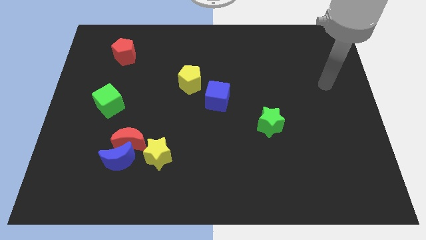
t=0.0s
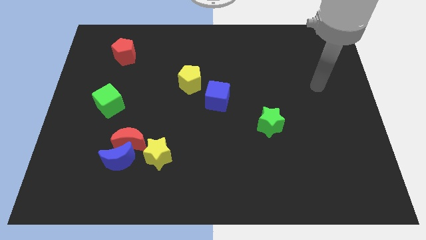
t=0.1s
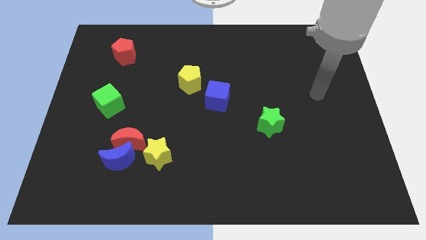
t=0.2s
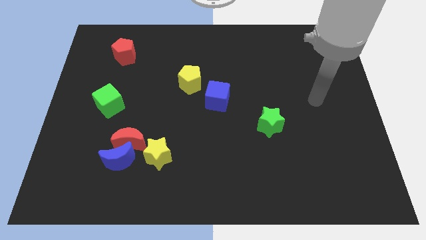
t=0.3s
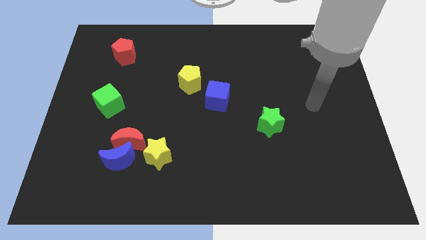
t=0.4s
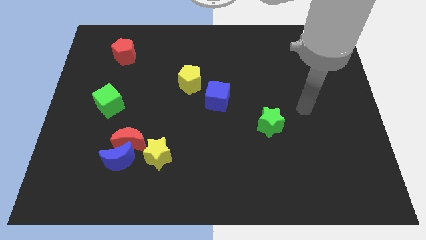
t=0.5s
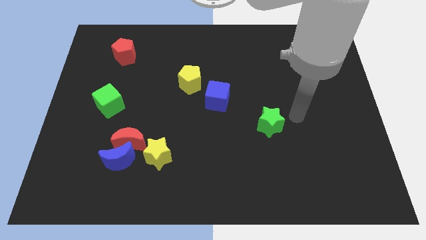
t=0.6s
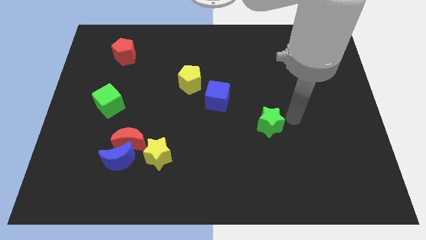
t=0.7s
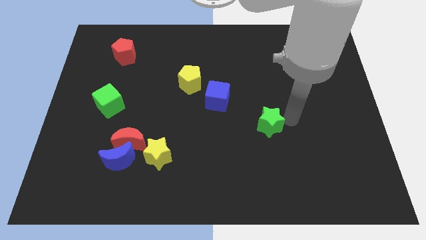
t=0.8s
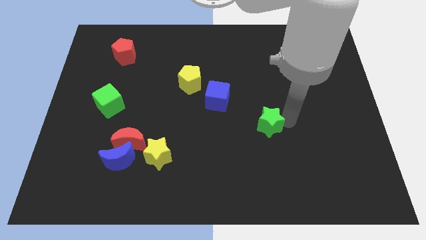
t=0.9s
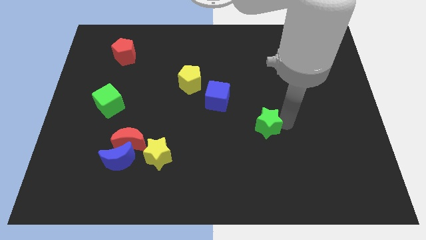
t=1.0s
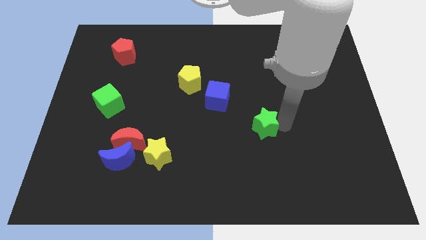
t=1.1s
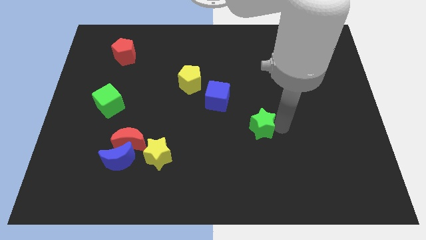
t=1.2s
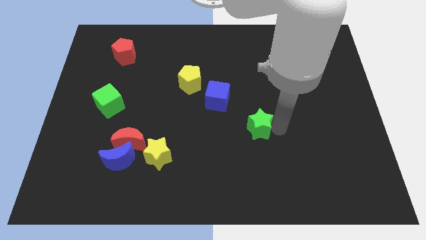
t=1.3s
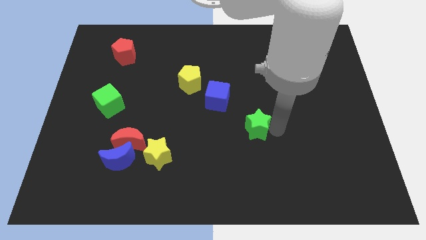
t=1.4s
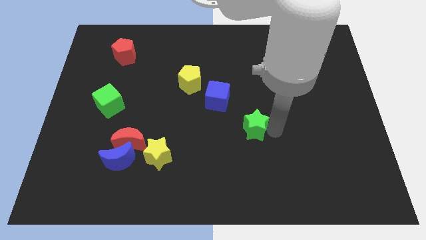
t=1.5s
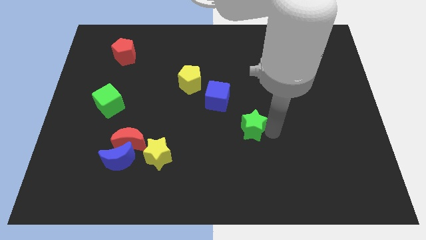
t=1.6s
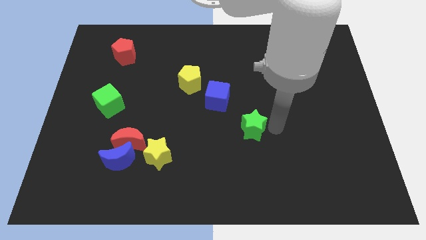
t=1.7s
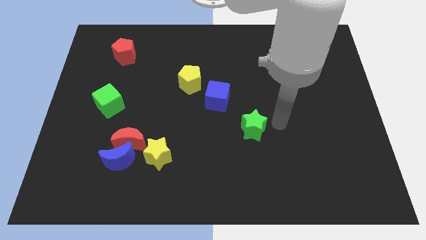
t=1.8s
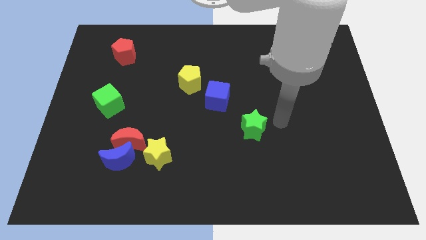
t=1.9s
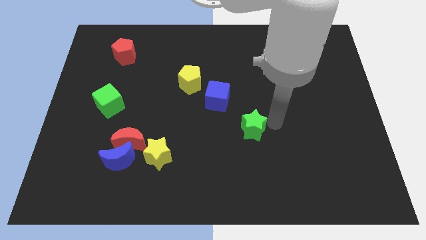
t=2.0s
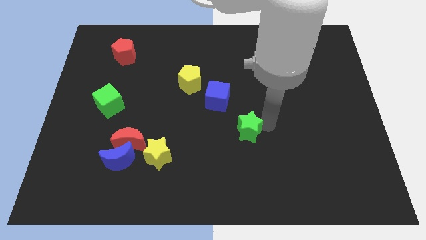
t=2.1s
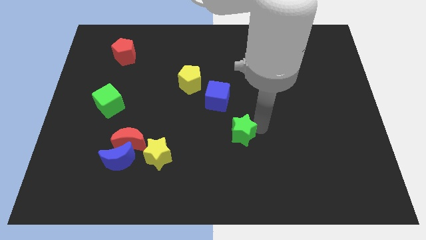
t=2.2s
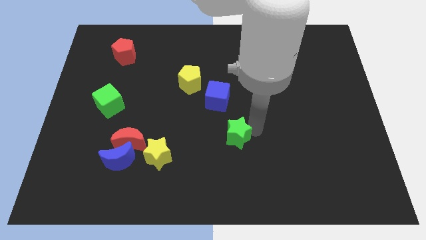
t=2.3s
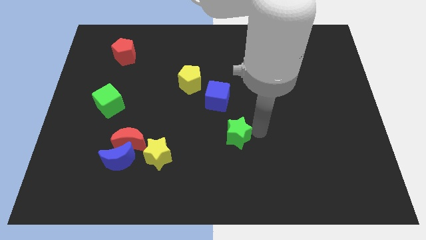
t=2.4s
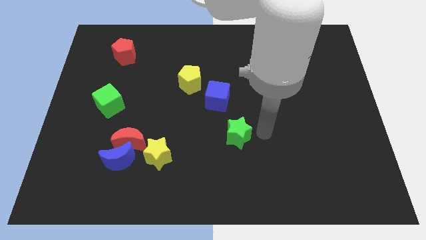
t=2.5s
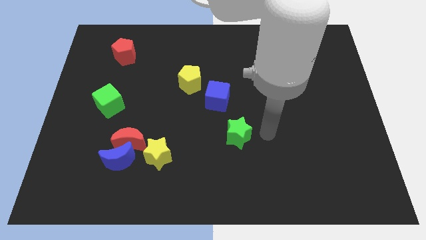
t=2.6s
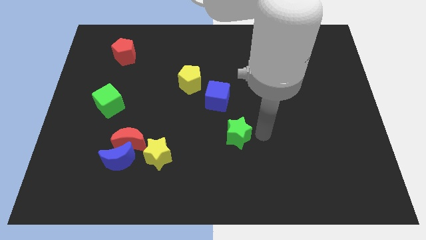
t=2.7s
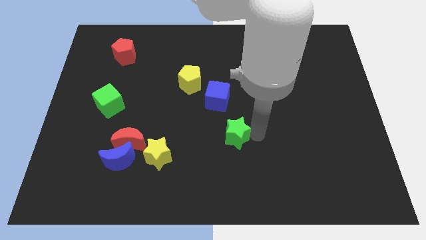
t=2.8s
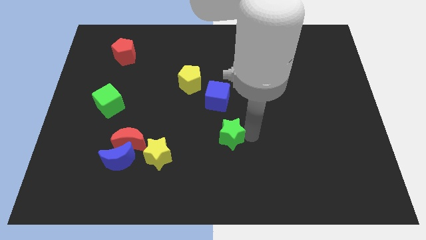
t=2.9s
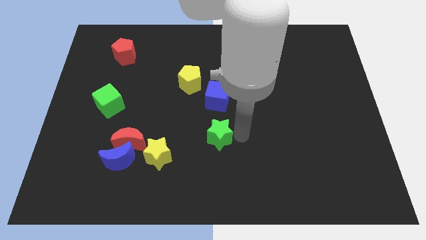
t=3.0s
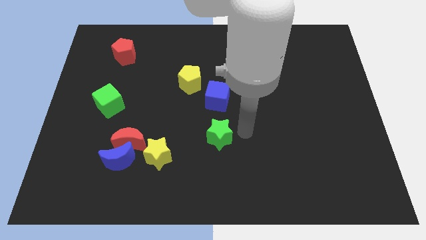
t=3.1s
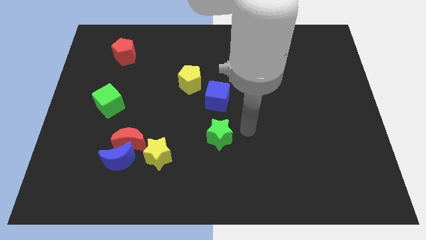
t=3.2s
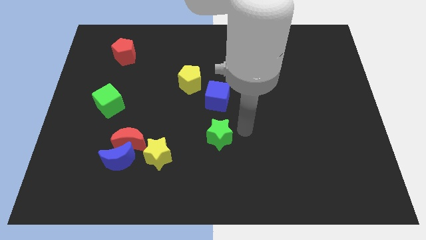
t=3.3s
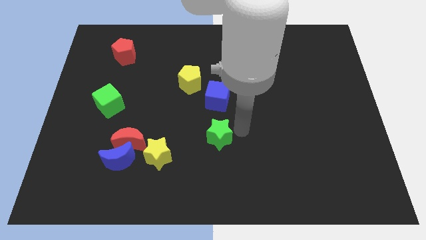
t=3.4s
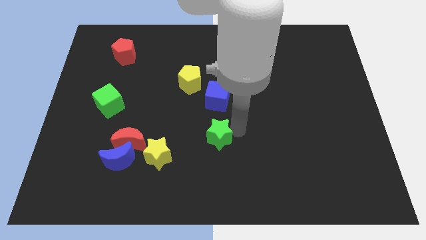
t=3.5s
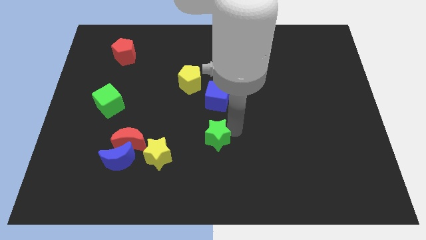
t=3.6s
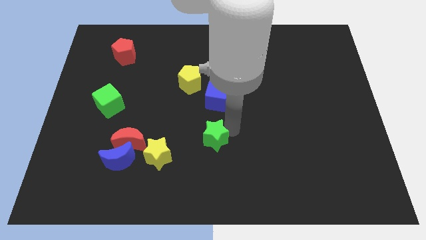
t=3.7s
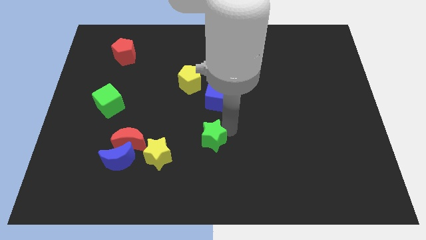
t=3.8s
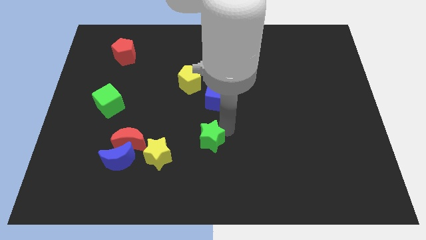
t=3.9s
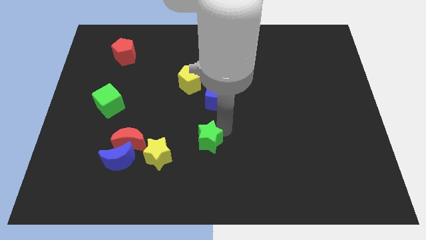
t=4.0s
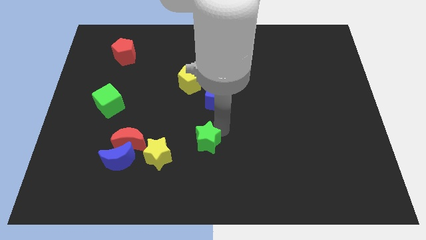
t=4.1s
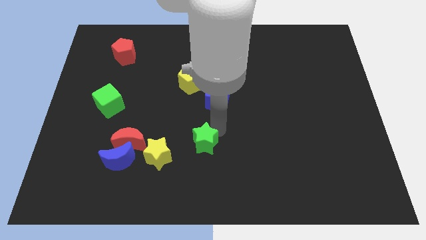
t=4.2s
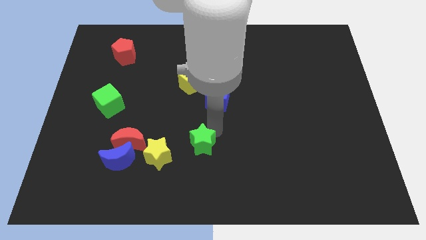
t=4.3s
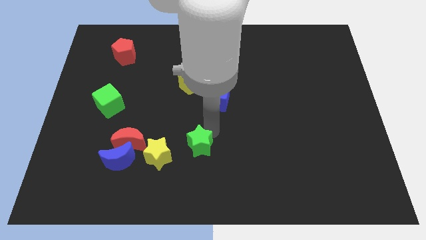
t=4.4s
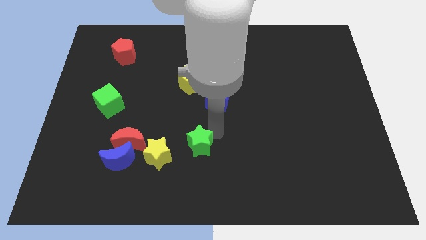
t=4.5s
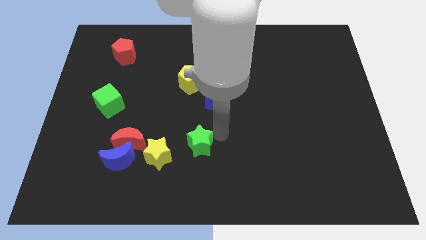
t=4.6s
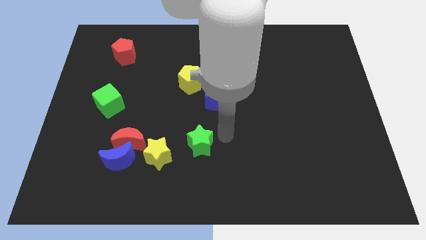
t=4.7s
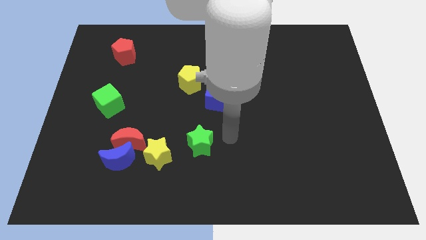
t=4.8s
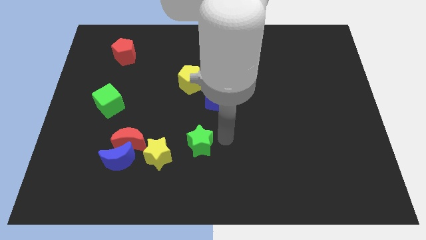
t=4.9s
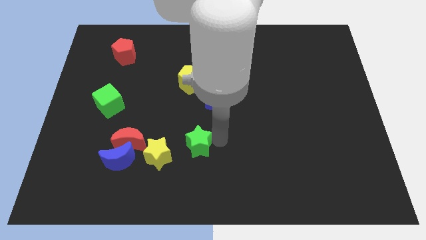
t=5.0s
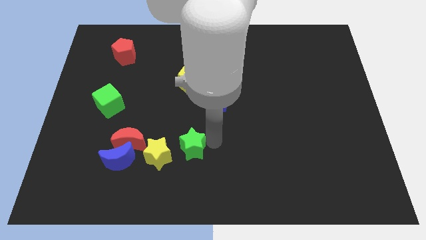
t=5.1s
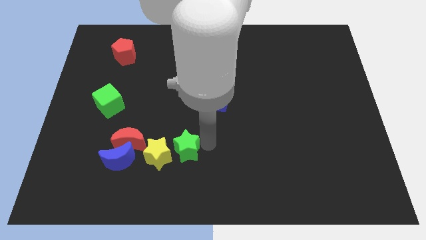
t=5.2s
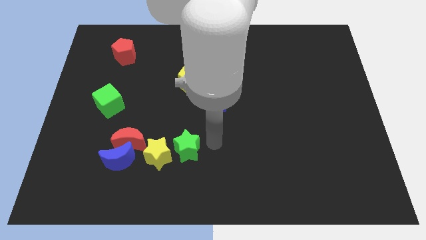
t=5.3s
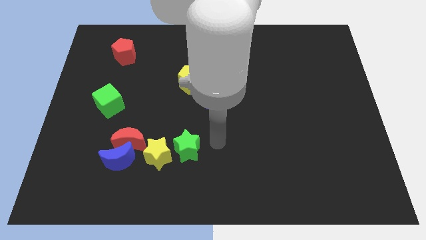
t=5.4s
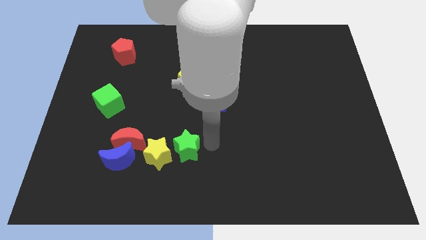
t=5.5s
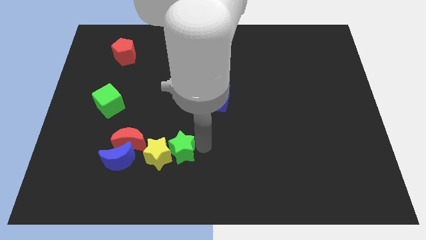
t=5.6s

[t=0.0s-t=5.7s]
put the green star next to the yellow star

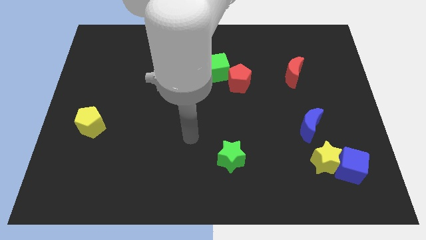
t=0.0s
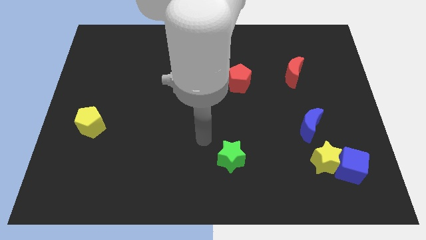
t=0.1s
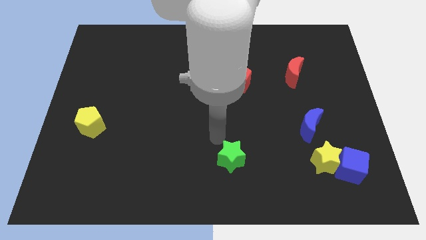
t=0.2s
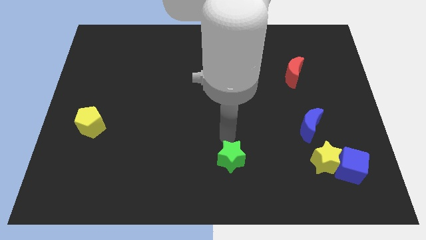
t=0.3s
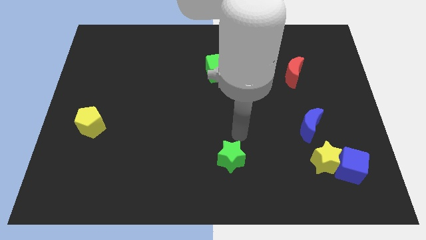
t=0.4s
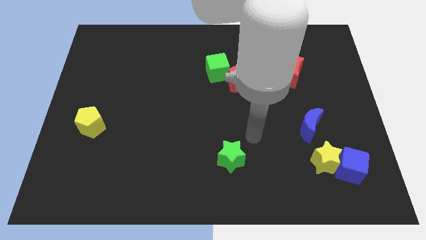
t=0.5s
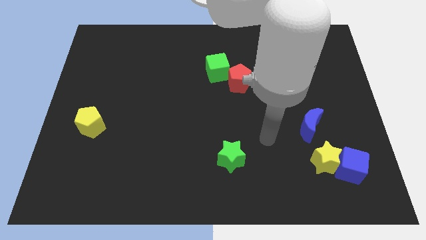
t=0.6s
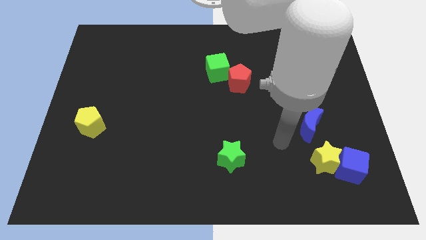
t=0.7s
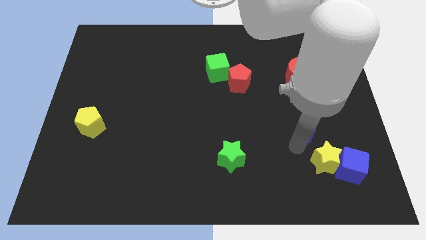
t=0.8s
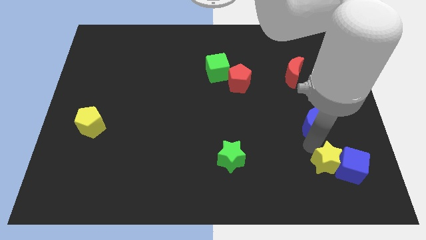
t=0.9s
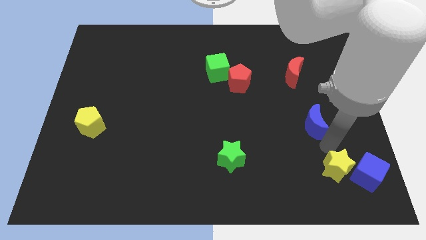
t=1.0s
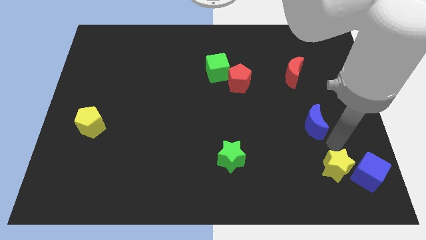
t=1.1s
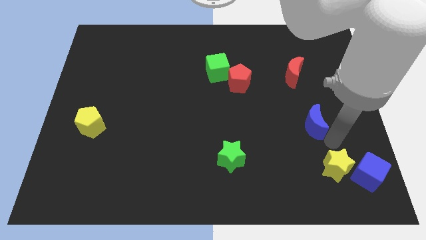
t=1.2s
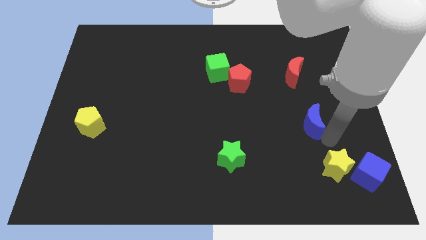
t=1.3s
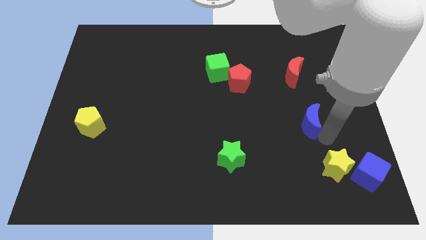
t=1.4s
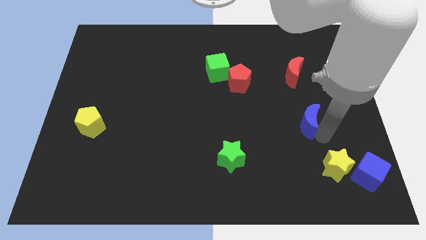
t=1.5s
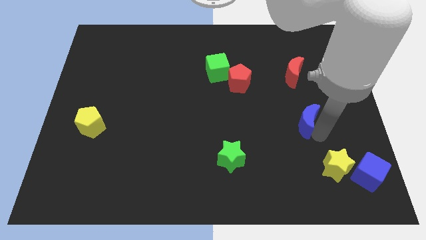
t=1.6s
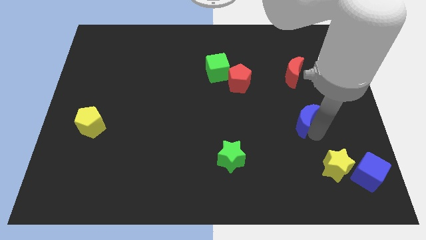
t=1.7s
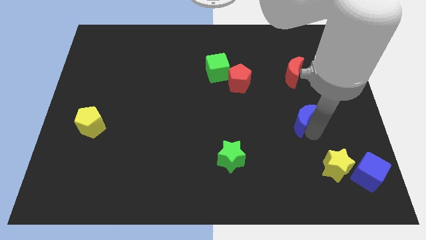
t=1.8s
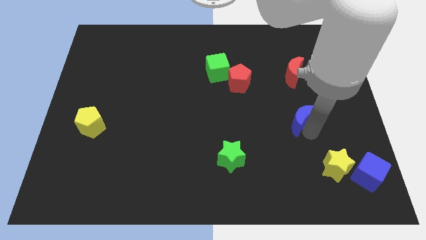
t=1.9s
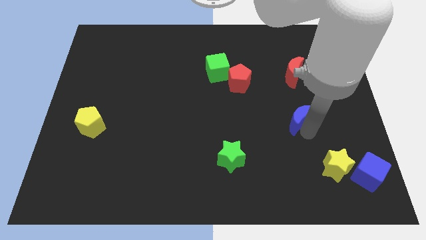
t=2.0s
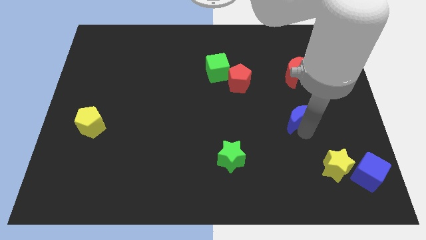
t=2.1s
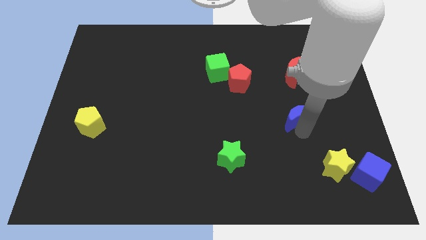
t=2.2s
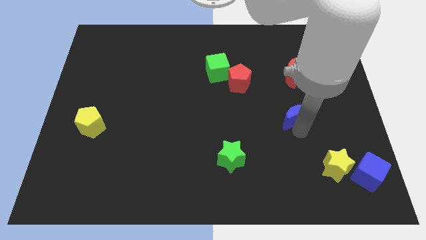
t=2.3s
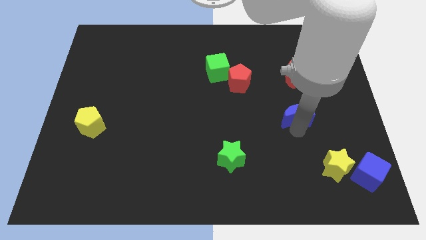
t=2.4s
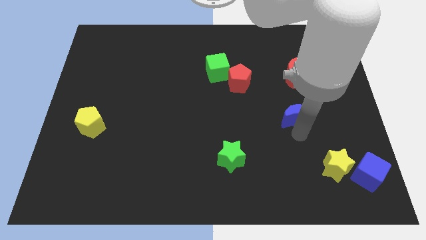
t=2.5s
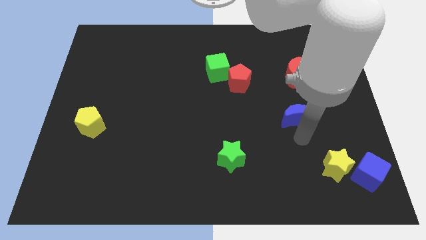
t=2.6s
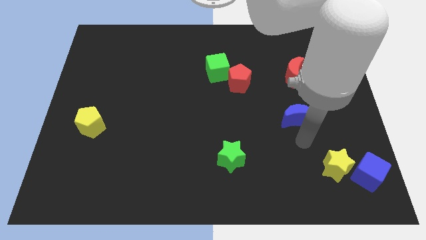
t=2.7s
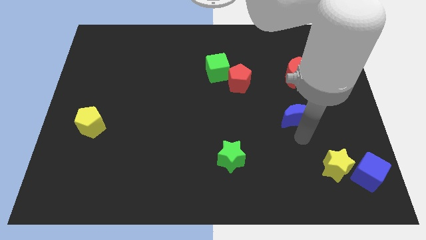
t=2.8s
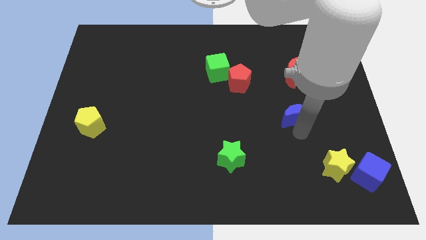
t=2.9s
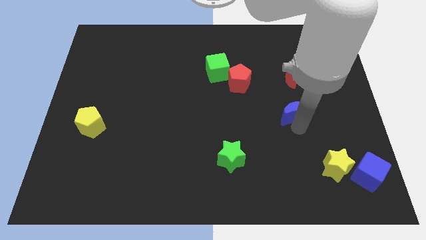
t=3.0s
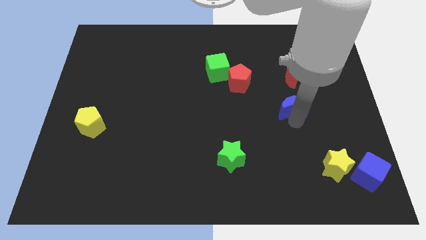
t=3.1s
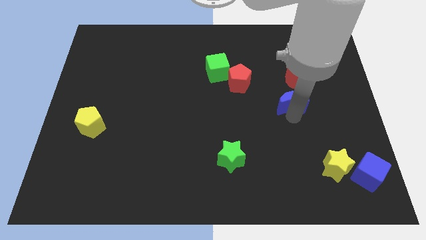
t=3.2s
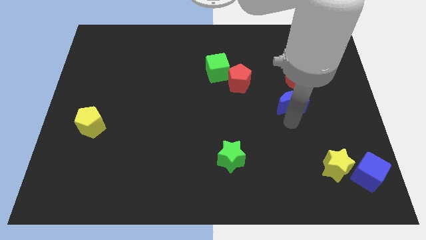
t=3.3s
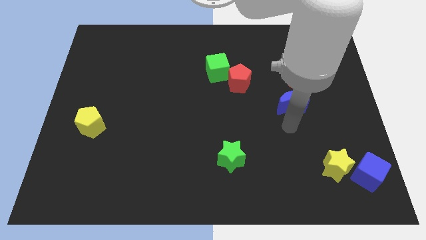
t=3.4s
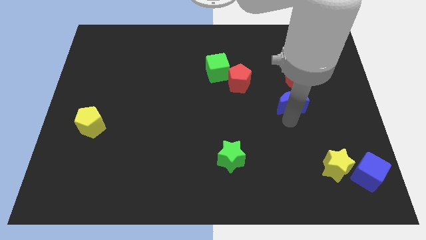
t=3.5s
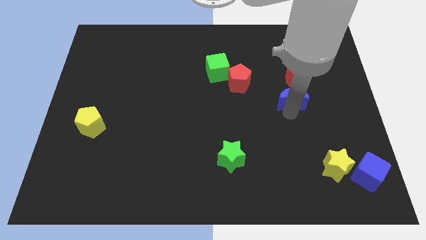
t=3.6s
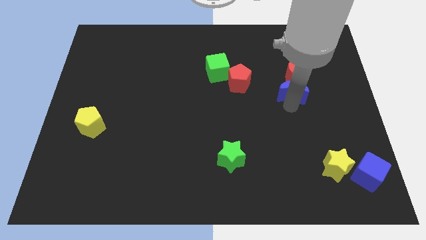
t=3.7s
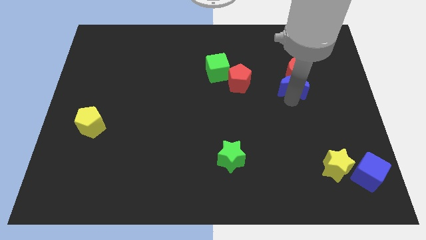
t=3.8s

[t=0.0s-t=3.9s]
move the blue moon next to the red moon
